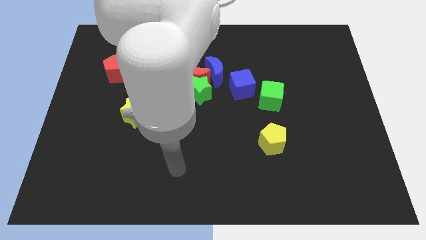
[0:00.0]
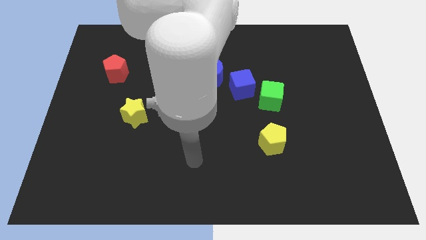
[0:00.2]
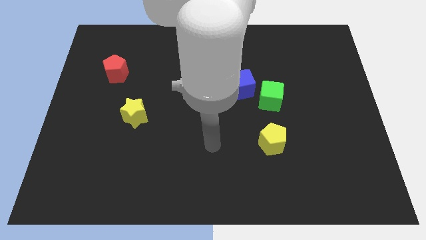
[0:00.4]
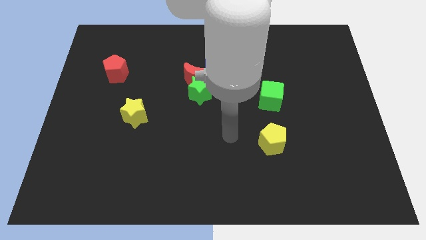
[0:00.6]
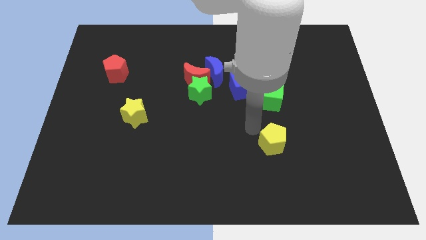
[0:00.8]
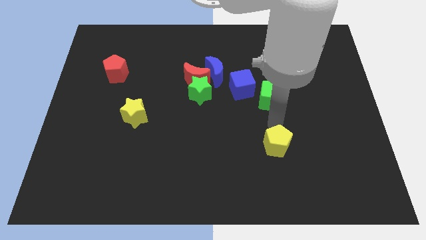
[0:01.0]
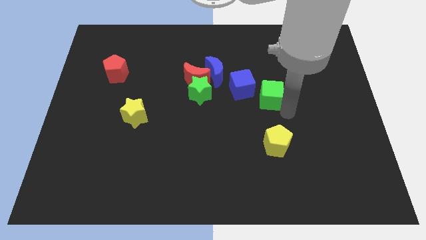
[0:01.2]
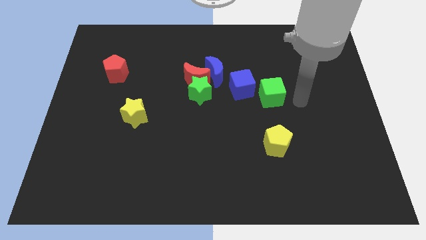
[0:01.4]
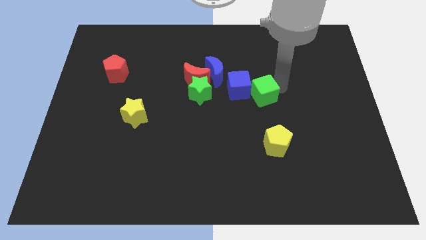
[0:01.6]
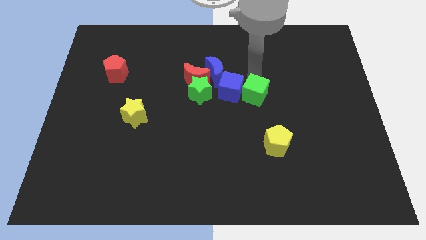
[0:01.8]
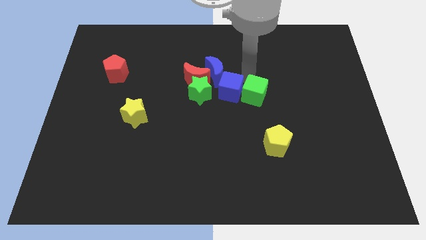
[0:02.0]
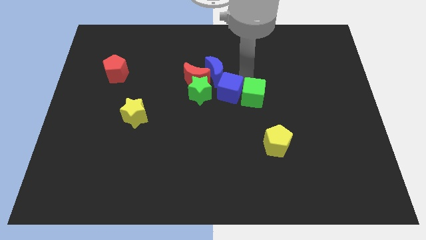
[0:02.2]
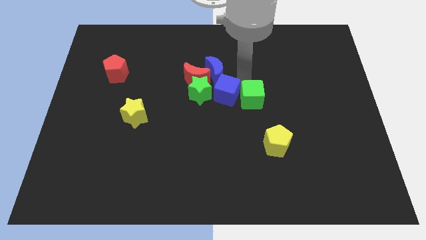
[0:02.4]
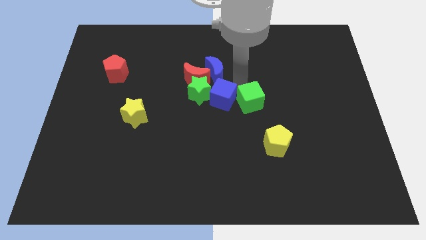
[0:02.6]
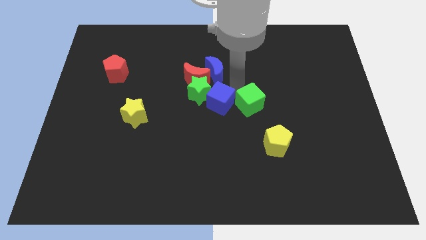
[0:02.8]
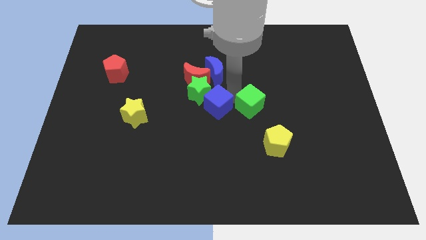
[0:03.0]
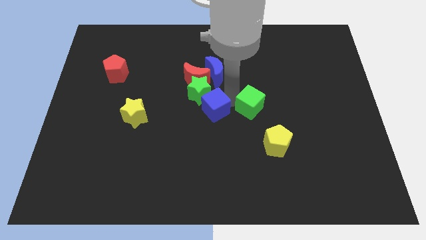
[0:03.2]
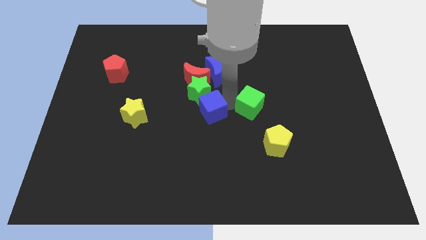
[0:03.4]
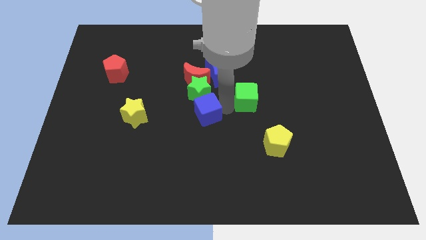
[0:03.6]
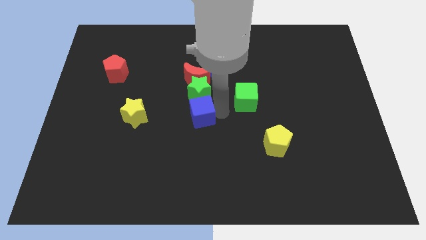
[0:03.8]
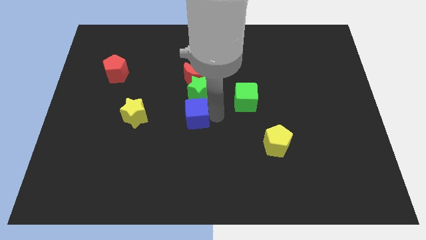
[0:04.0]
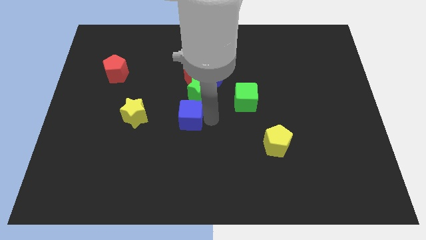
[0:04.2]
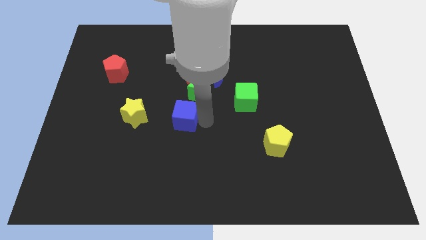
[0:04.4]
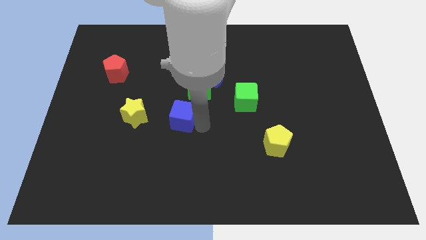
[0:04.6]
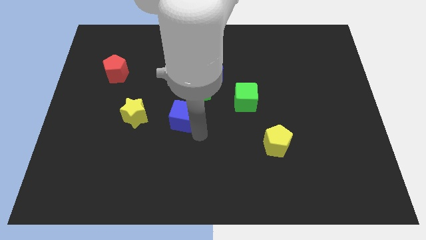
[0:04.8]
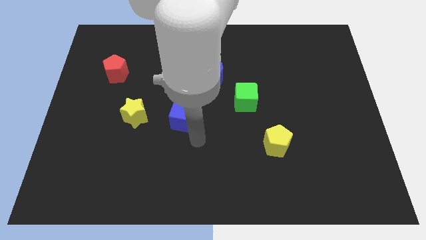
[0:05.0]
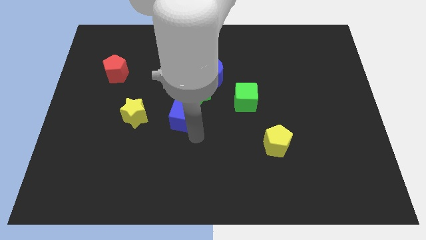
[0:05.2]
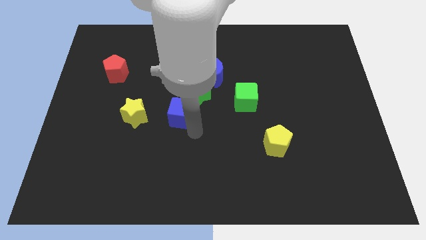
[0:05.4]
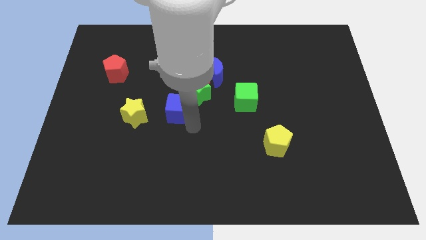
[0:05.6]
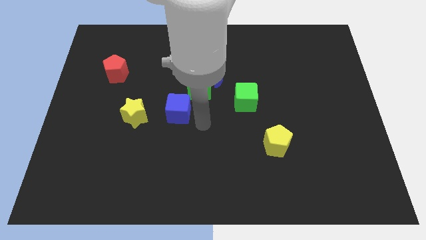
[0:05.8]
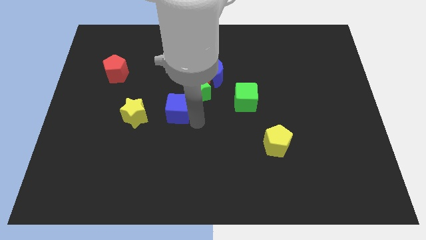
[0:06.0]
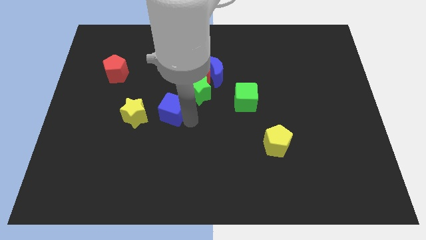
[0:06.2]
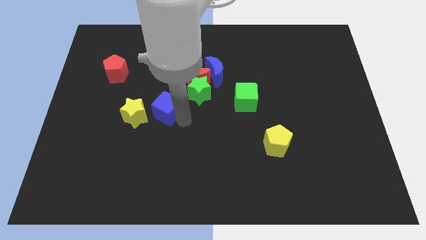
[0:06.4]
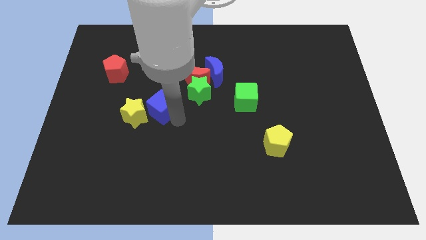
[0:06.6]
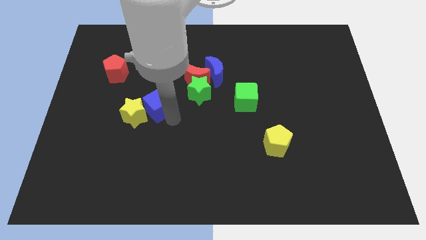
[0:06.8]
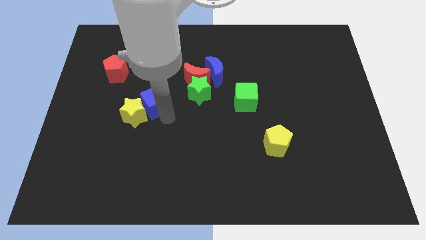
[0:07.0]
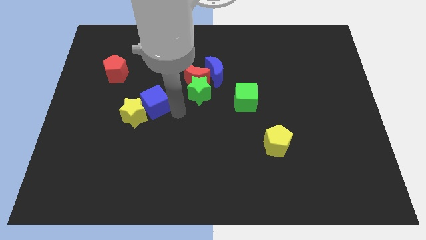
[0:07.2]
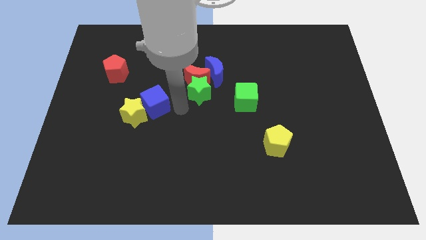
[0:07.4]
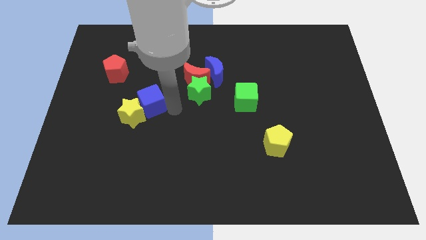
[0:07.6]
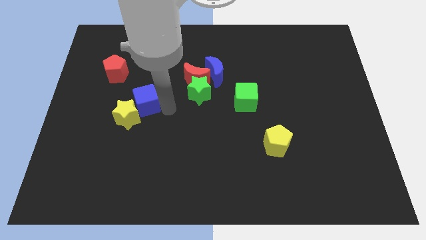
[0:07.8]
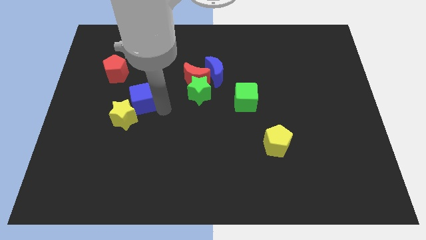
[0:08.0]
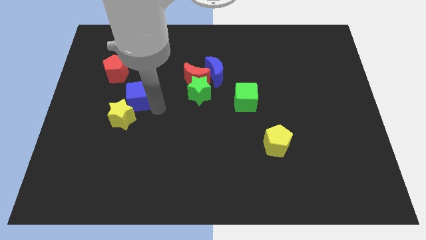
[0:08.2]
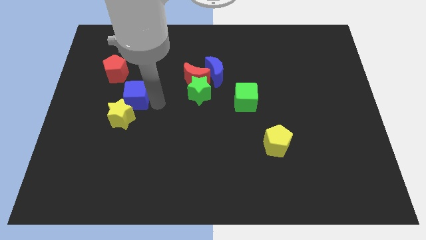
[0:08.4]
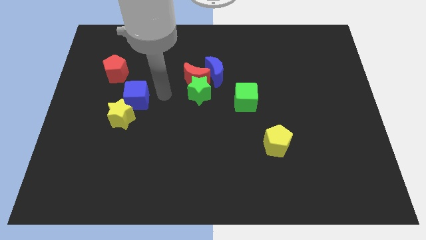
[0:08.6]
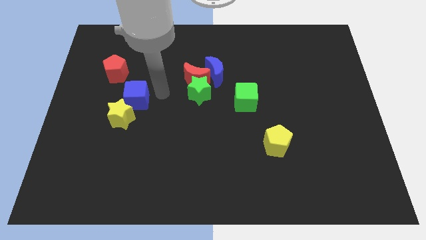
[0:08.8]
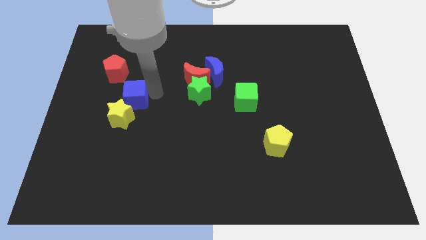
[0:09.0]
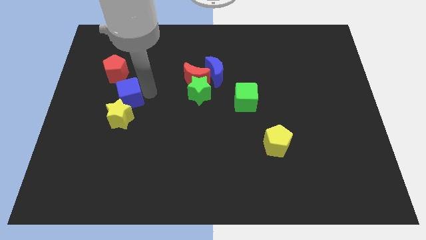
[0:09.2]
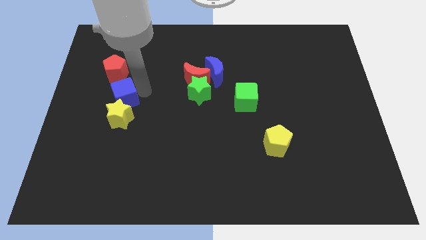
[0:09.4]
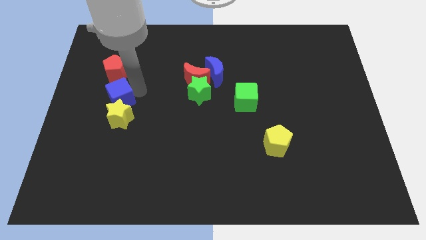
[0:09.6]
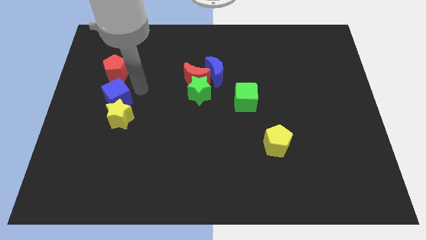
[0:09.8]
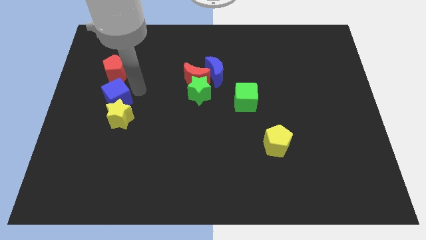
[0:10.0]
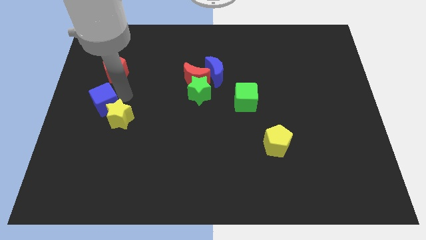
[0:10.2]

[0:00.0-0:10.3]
put the blue cube to the center left

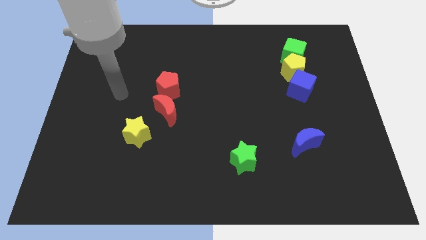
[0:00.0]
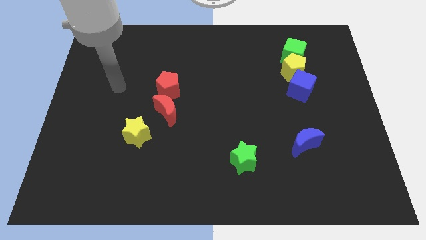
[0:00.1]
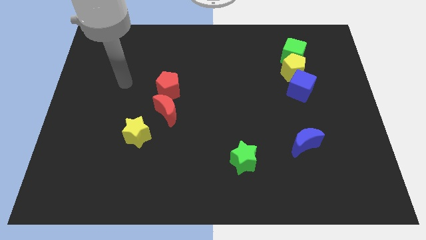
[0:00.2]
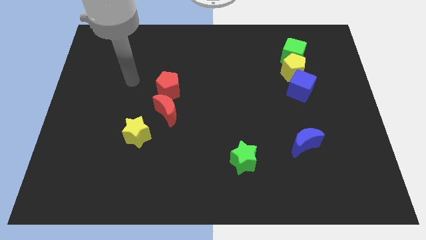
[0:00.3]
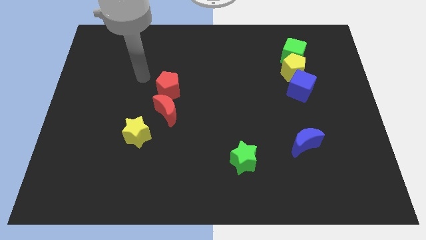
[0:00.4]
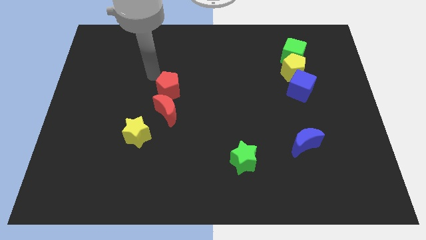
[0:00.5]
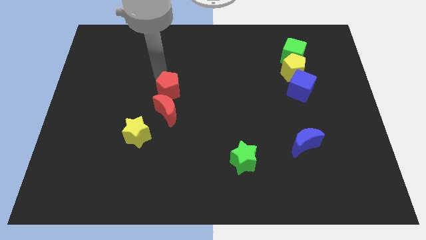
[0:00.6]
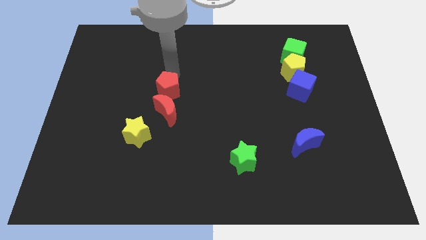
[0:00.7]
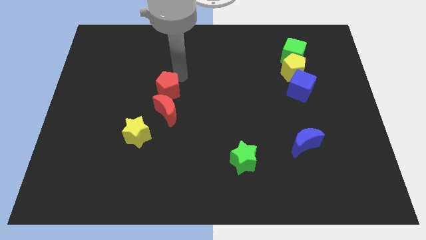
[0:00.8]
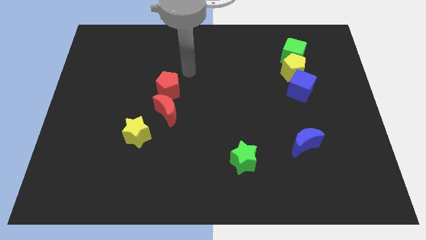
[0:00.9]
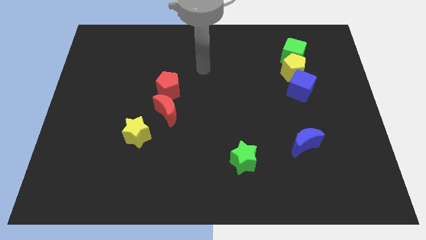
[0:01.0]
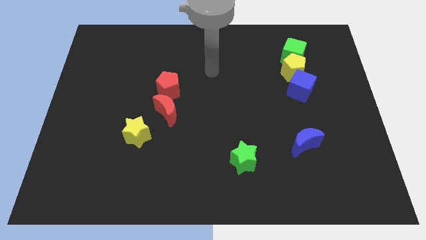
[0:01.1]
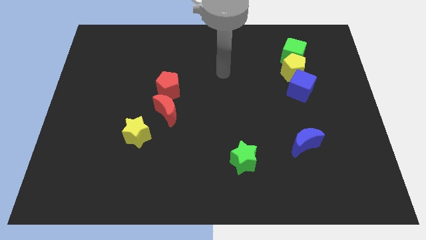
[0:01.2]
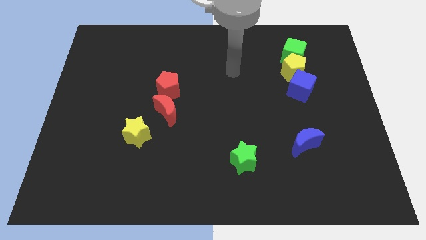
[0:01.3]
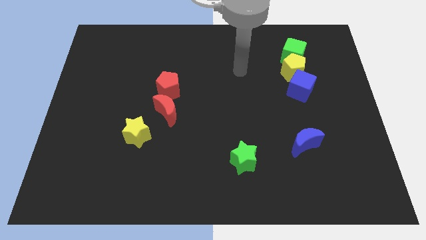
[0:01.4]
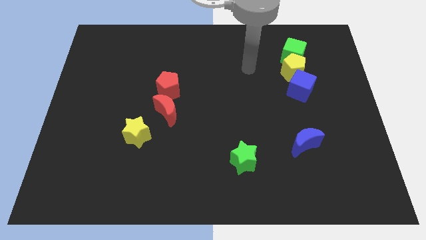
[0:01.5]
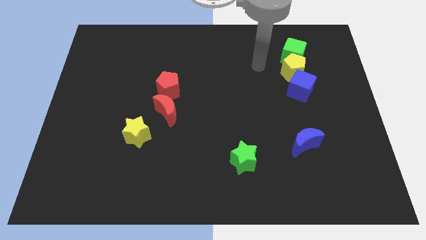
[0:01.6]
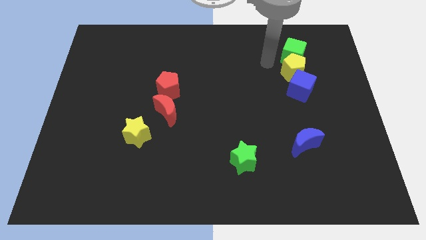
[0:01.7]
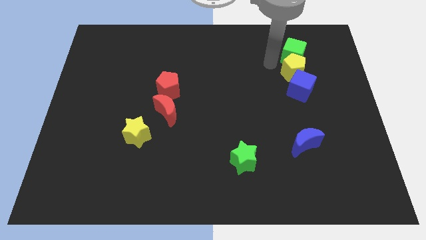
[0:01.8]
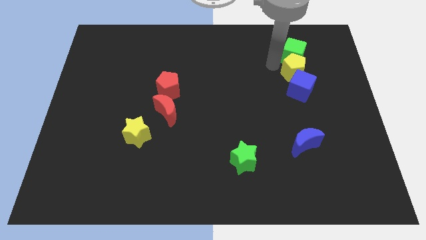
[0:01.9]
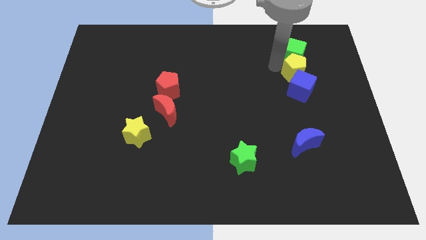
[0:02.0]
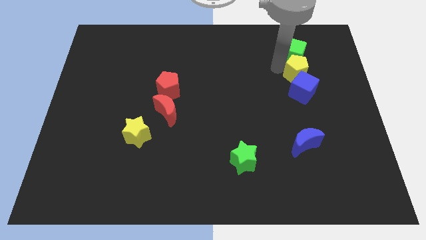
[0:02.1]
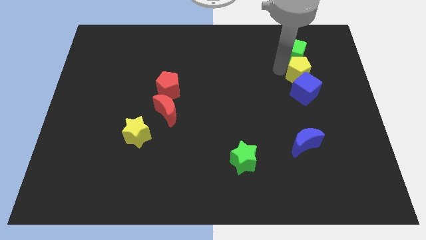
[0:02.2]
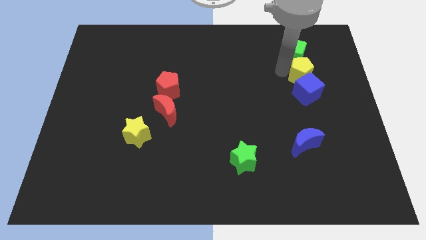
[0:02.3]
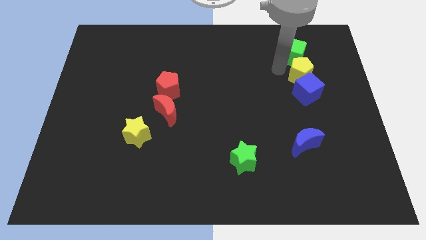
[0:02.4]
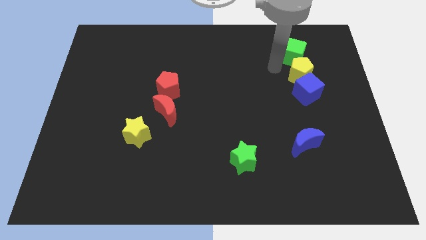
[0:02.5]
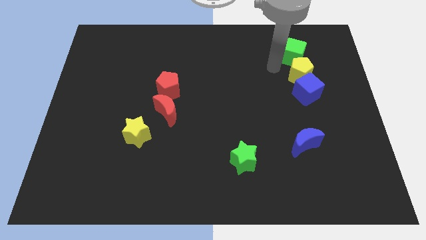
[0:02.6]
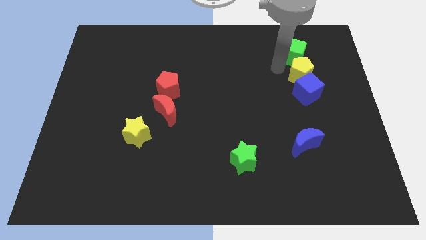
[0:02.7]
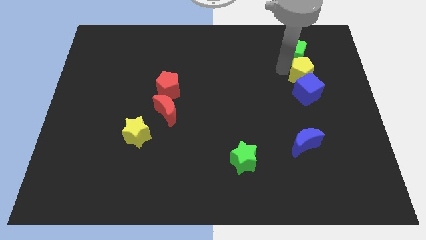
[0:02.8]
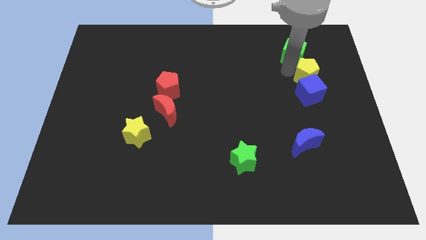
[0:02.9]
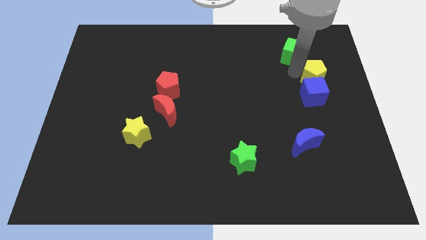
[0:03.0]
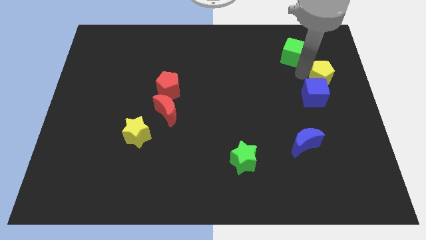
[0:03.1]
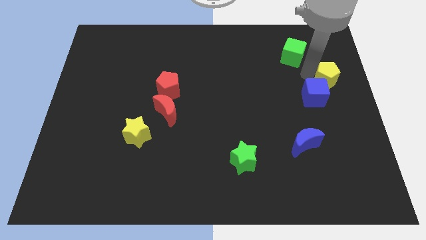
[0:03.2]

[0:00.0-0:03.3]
move the yellow pentagon to the right side of the board
